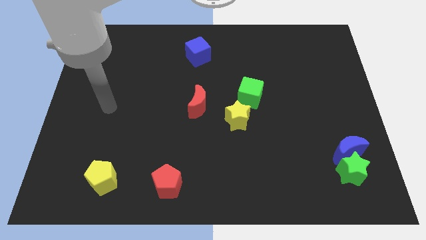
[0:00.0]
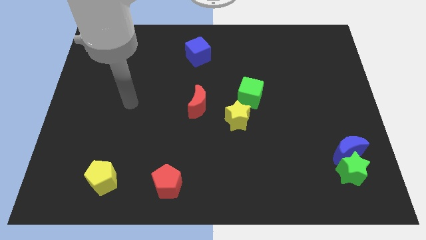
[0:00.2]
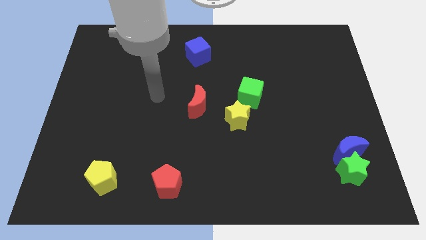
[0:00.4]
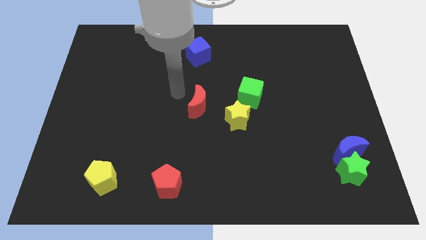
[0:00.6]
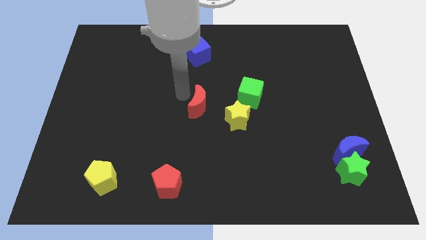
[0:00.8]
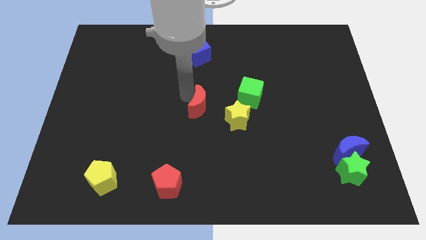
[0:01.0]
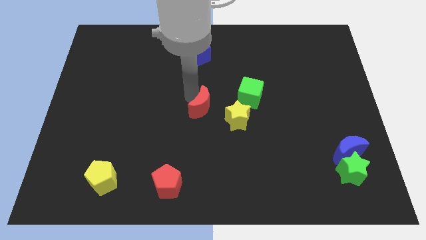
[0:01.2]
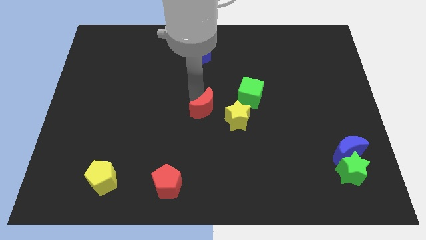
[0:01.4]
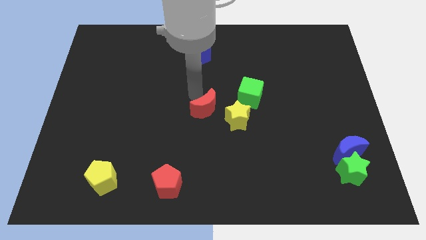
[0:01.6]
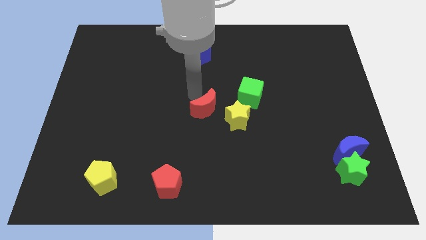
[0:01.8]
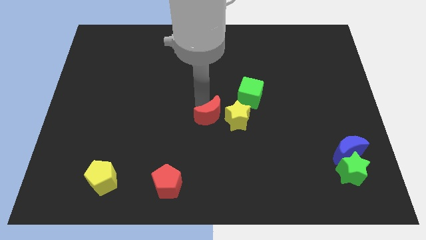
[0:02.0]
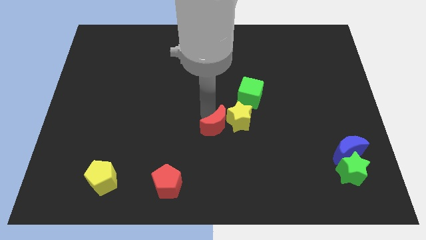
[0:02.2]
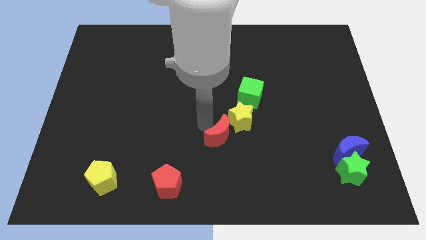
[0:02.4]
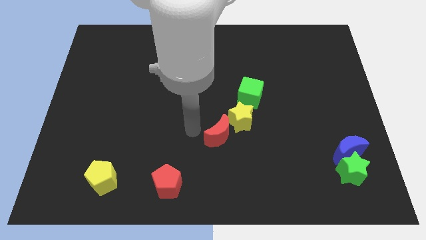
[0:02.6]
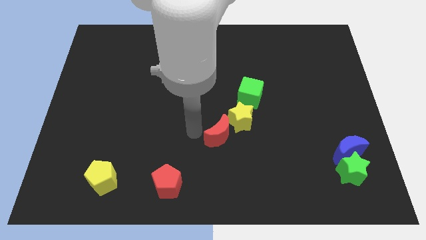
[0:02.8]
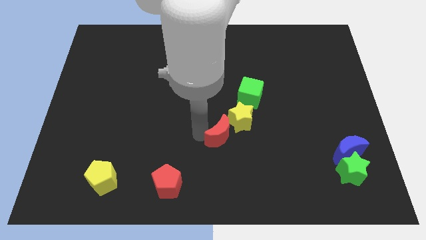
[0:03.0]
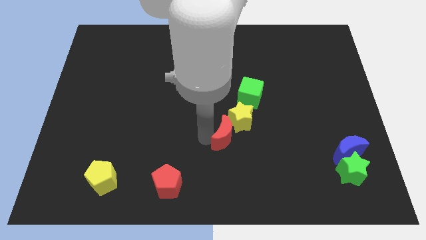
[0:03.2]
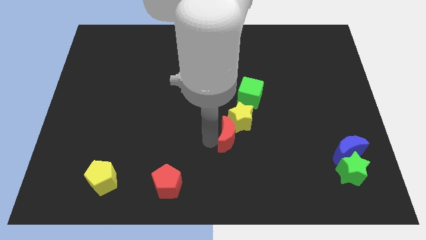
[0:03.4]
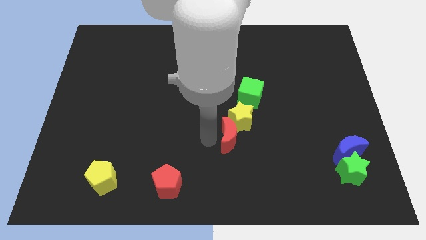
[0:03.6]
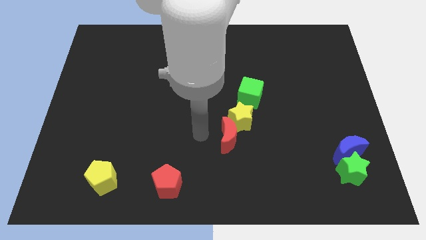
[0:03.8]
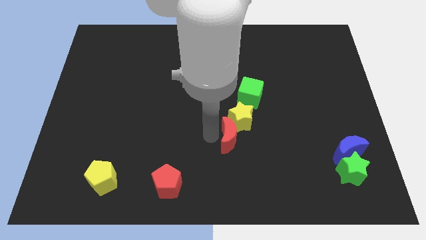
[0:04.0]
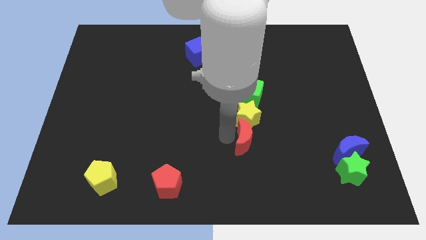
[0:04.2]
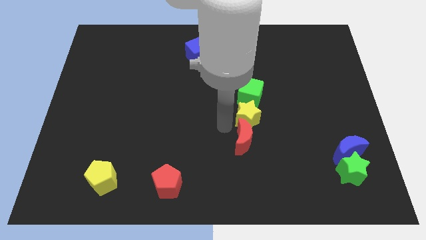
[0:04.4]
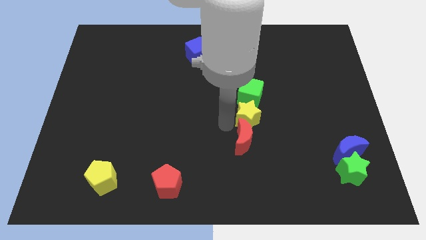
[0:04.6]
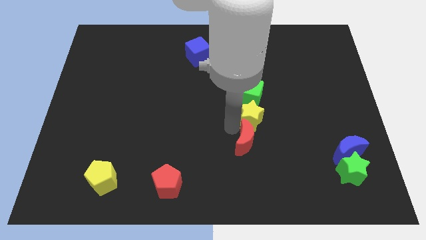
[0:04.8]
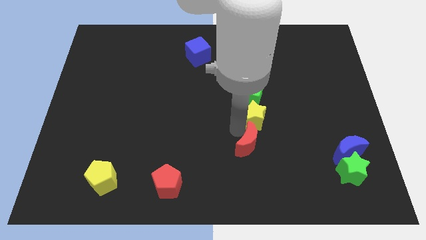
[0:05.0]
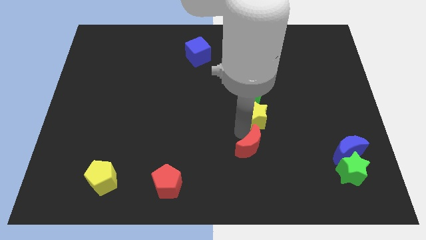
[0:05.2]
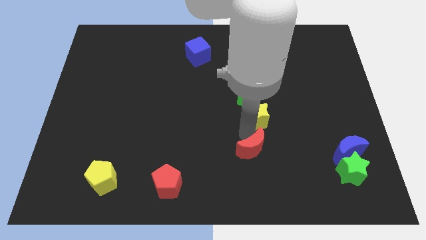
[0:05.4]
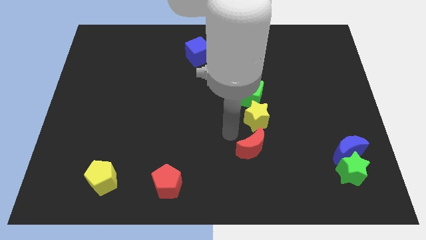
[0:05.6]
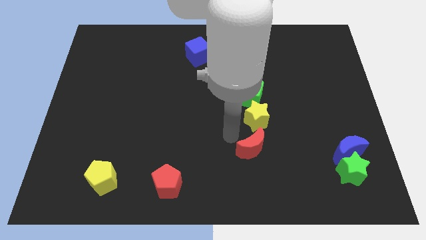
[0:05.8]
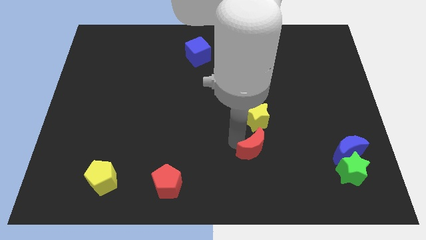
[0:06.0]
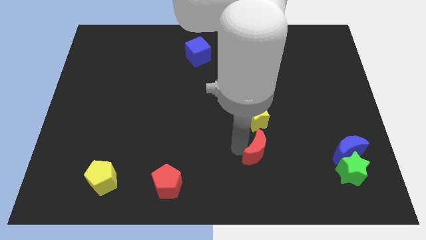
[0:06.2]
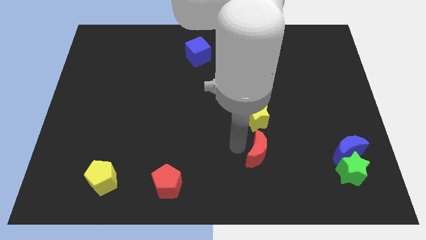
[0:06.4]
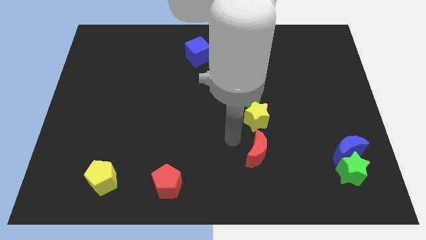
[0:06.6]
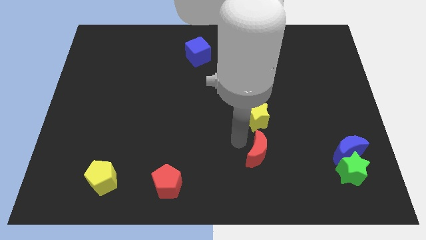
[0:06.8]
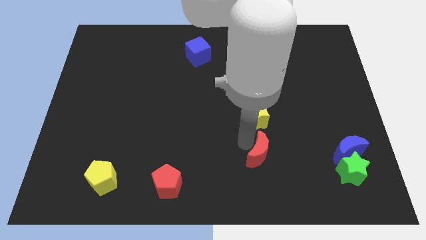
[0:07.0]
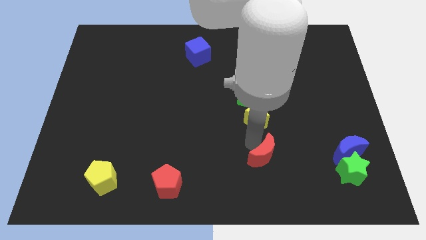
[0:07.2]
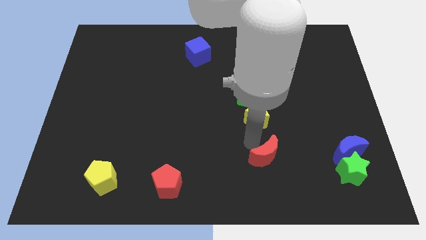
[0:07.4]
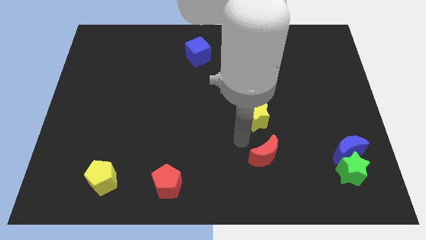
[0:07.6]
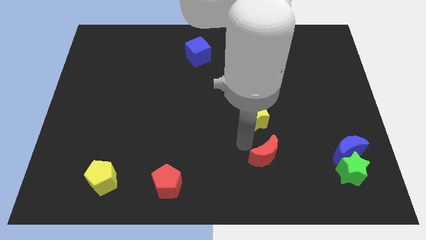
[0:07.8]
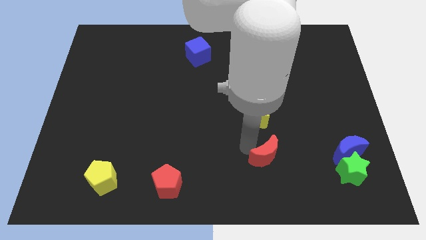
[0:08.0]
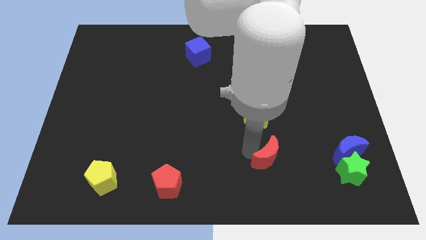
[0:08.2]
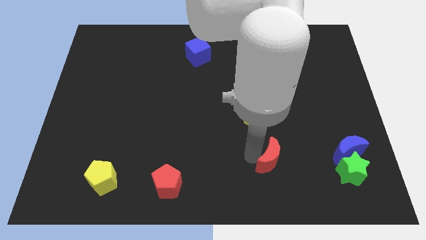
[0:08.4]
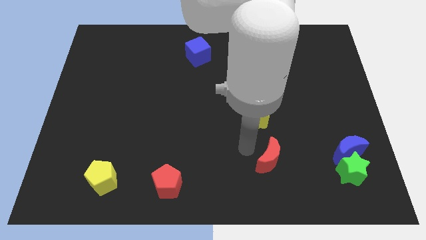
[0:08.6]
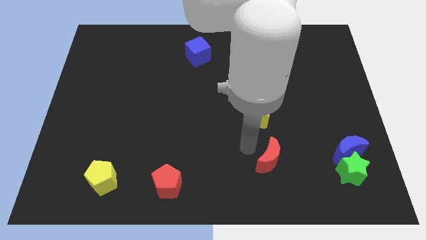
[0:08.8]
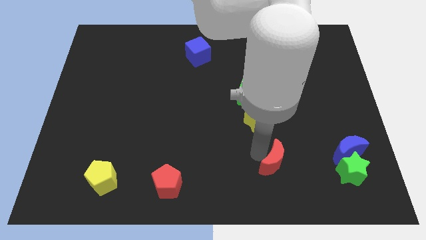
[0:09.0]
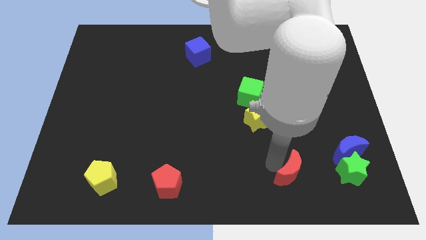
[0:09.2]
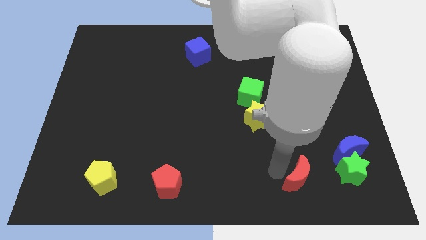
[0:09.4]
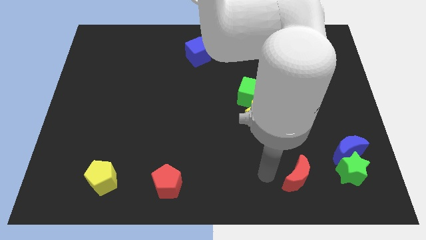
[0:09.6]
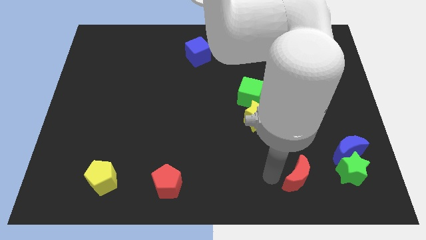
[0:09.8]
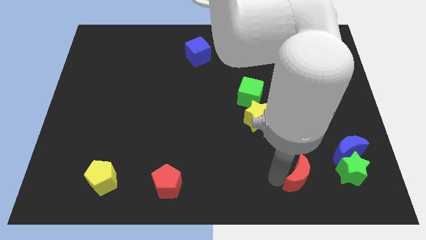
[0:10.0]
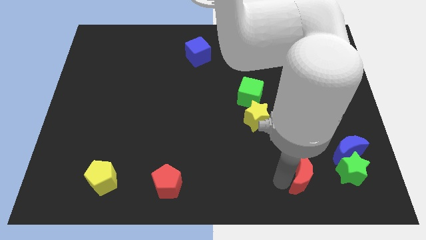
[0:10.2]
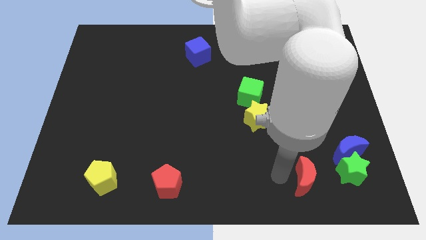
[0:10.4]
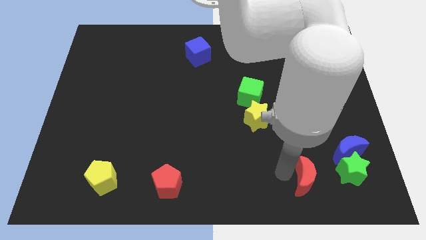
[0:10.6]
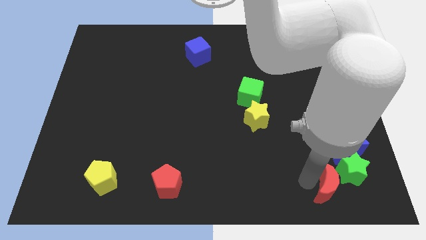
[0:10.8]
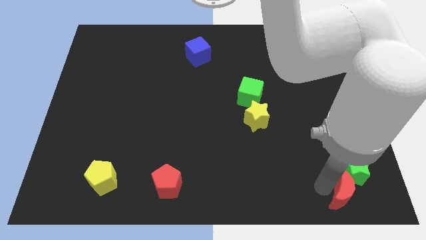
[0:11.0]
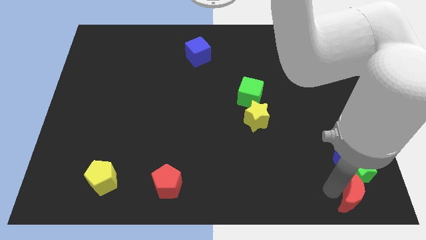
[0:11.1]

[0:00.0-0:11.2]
slide the red moon to the bottom right

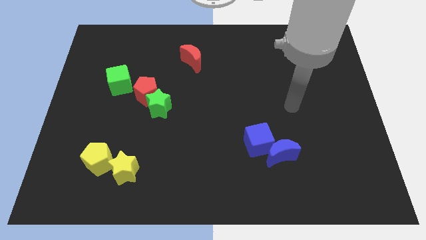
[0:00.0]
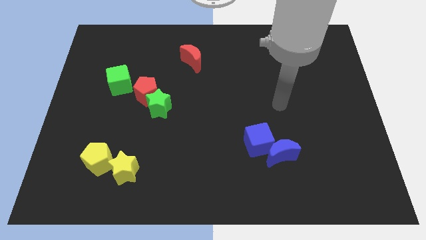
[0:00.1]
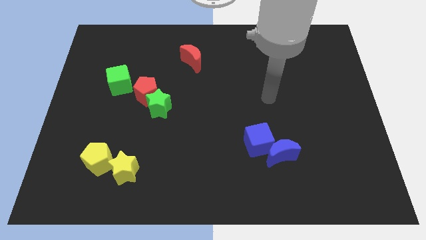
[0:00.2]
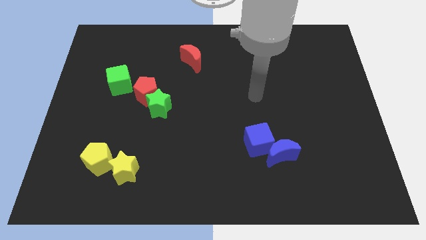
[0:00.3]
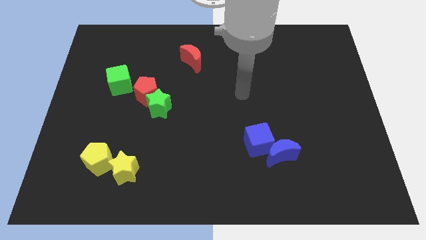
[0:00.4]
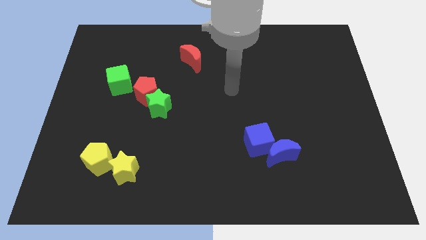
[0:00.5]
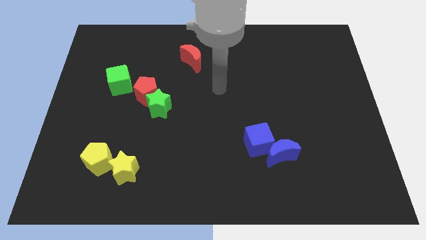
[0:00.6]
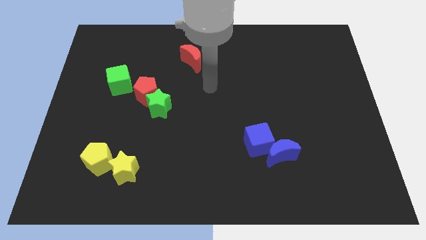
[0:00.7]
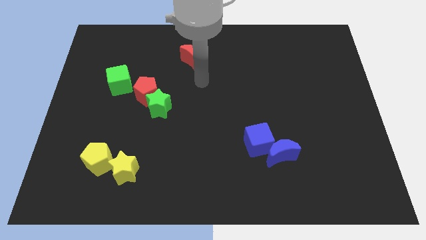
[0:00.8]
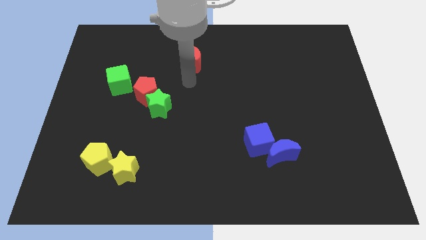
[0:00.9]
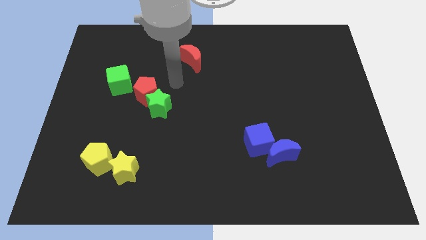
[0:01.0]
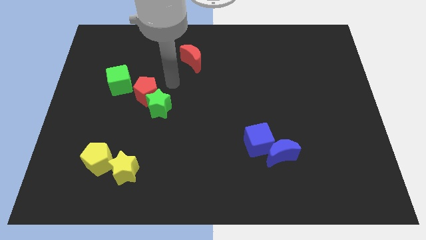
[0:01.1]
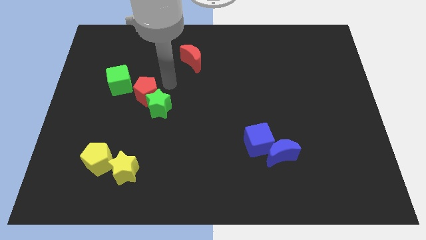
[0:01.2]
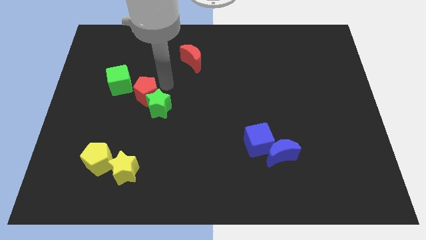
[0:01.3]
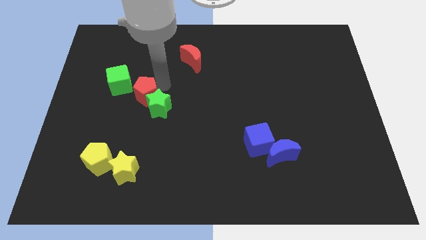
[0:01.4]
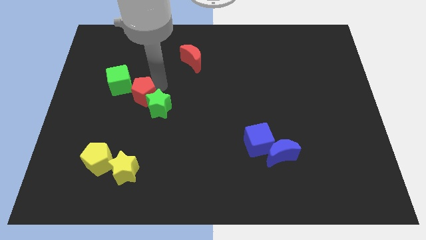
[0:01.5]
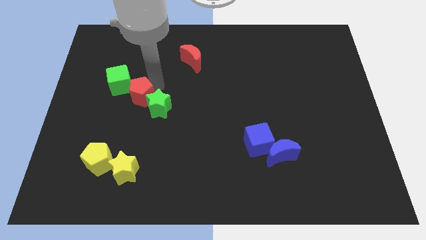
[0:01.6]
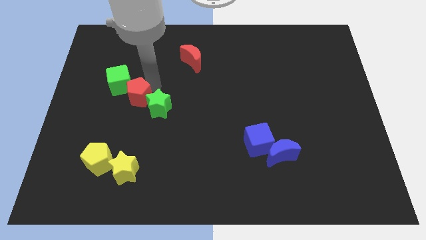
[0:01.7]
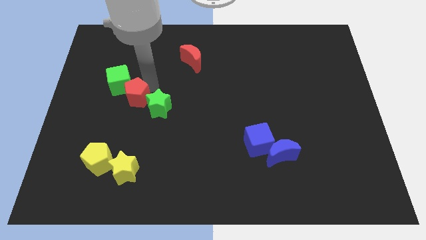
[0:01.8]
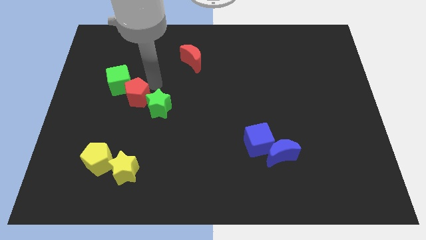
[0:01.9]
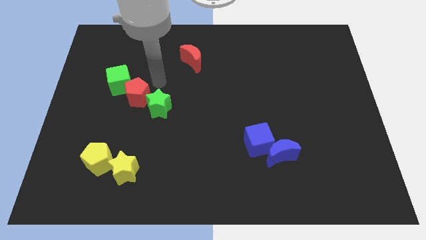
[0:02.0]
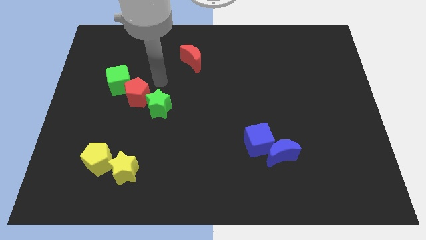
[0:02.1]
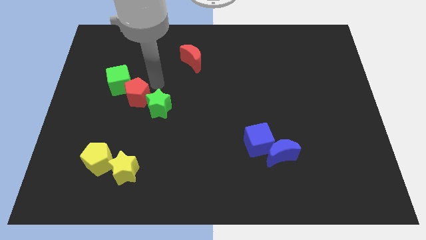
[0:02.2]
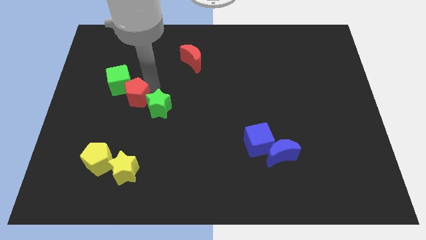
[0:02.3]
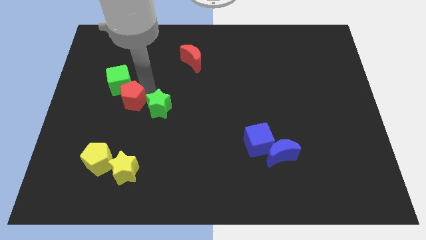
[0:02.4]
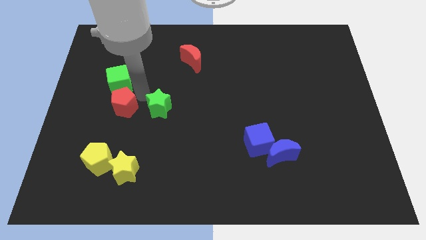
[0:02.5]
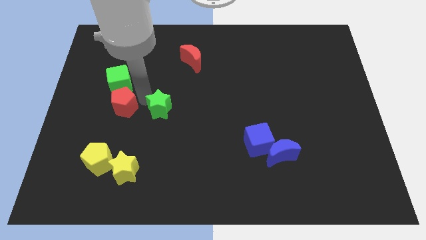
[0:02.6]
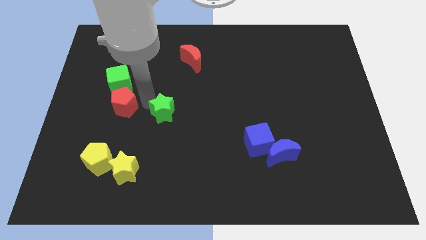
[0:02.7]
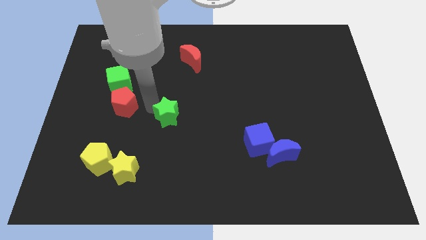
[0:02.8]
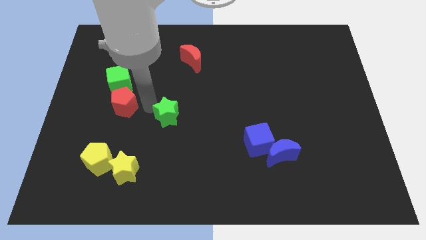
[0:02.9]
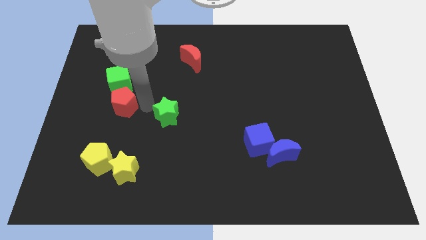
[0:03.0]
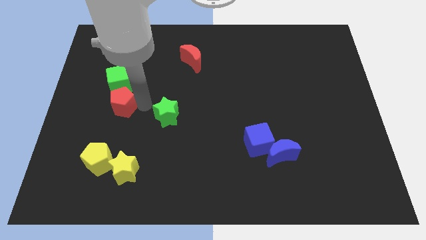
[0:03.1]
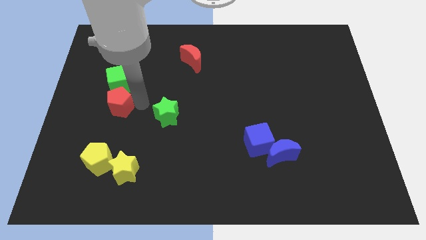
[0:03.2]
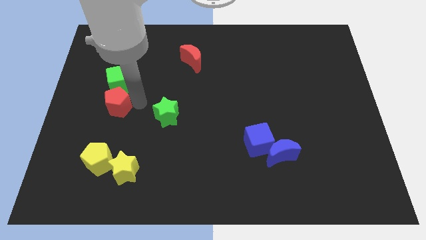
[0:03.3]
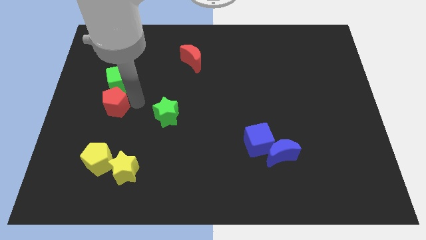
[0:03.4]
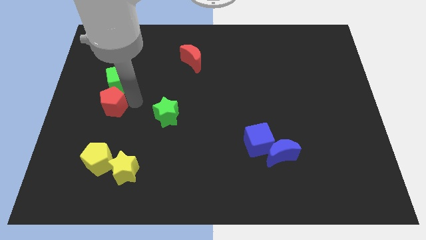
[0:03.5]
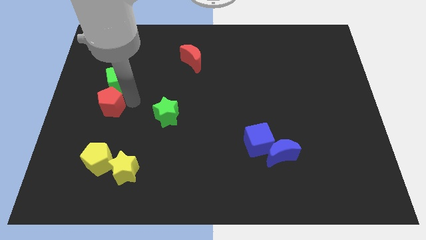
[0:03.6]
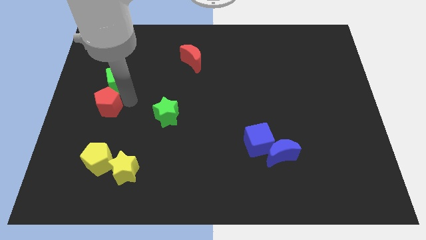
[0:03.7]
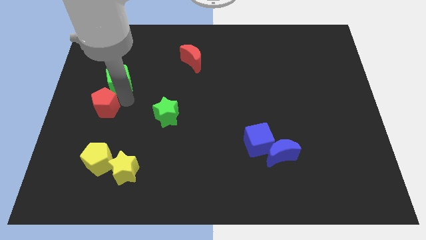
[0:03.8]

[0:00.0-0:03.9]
move the red pentagon to the left side
